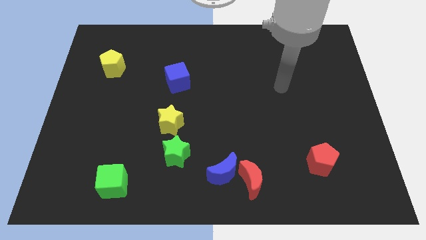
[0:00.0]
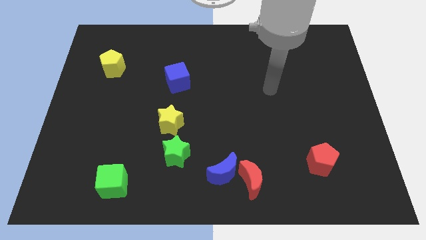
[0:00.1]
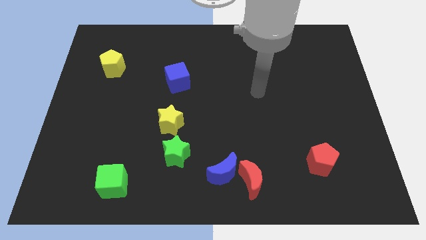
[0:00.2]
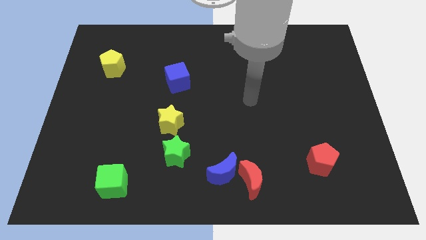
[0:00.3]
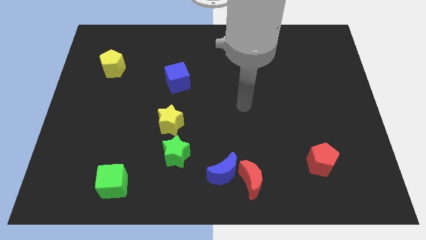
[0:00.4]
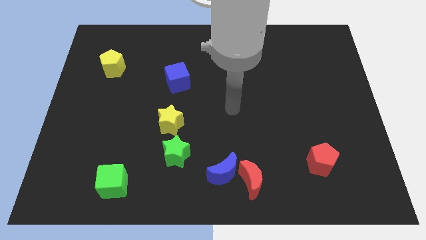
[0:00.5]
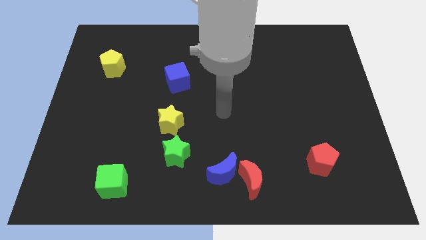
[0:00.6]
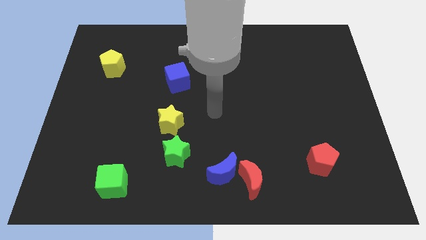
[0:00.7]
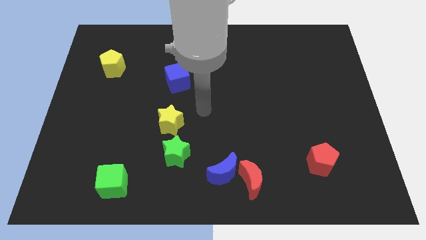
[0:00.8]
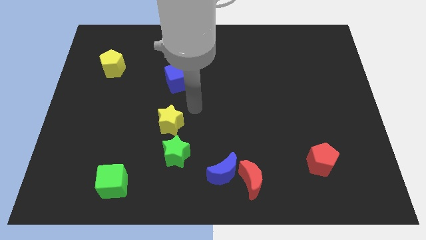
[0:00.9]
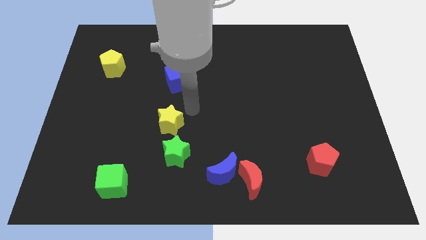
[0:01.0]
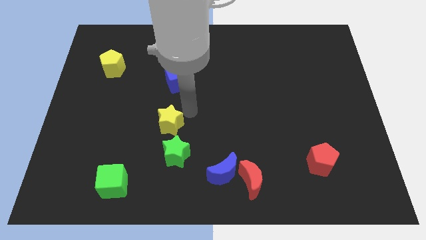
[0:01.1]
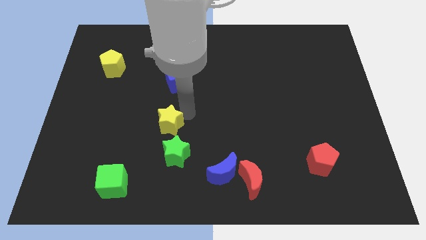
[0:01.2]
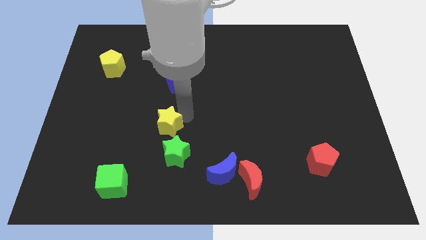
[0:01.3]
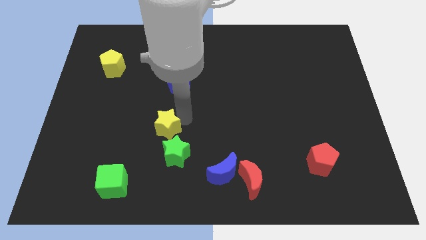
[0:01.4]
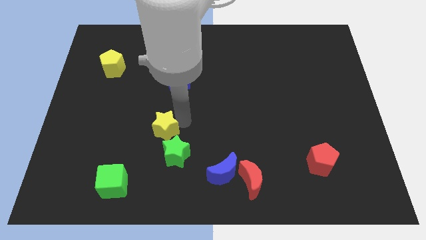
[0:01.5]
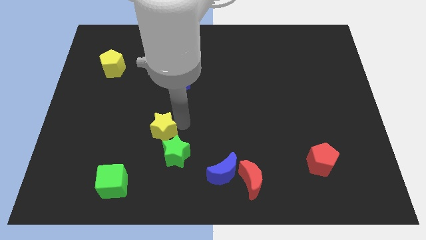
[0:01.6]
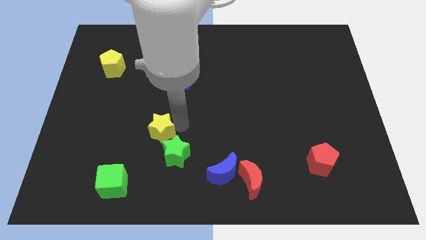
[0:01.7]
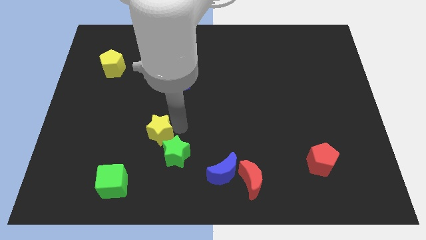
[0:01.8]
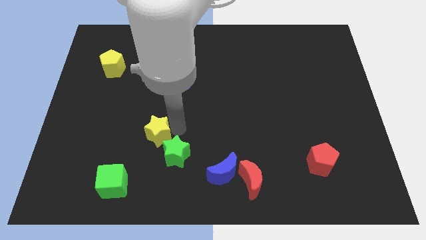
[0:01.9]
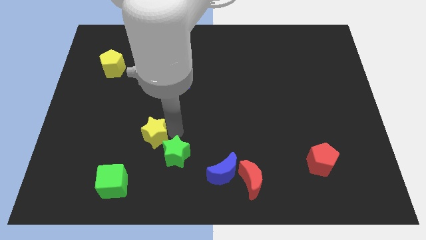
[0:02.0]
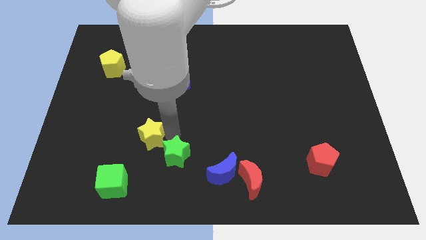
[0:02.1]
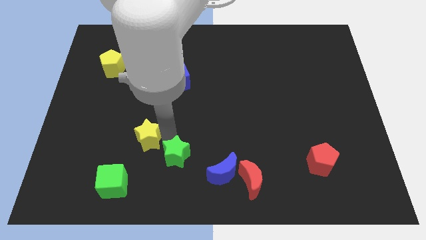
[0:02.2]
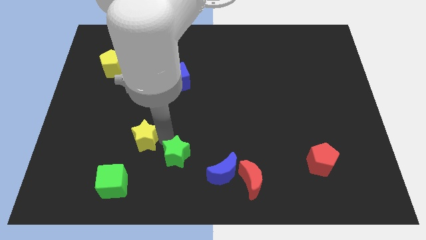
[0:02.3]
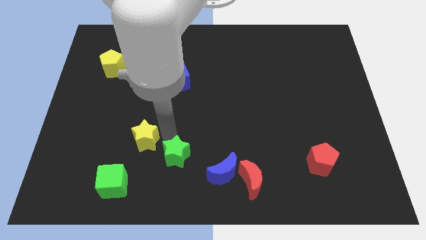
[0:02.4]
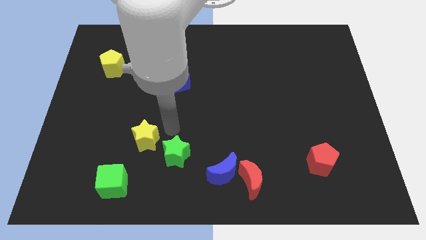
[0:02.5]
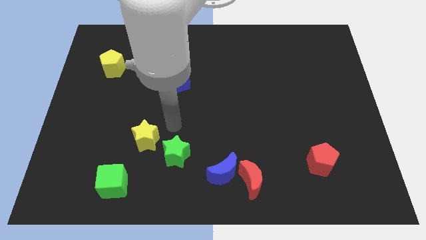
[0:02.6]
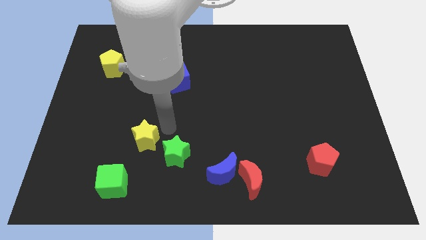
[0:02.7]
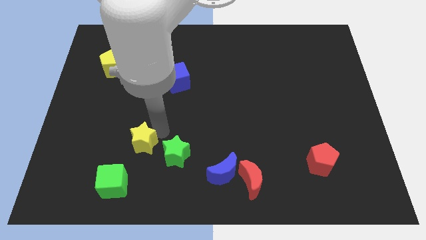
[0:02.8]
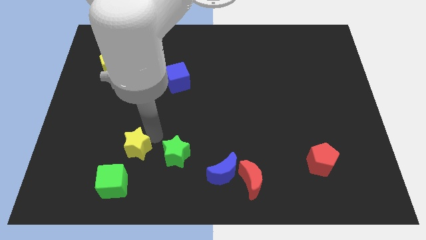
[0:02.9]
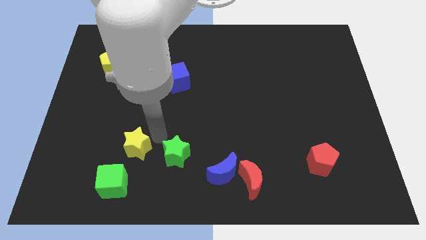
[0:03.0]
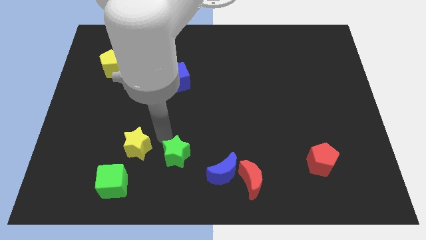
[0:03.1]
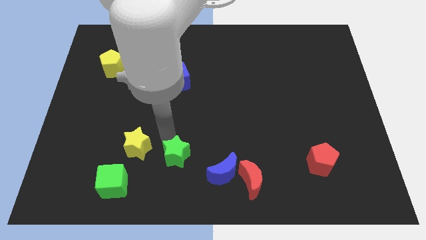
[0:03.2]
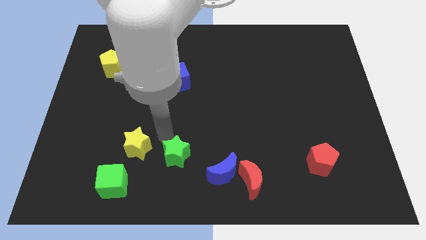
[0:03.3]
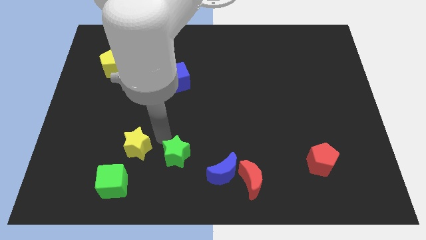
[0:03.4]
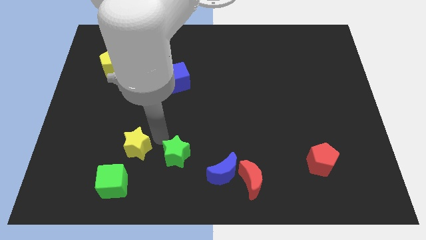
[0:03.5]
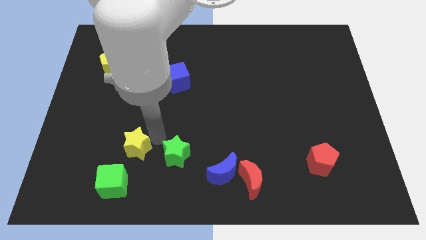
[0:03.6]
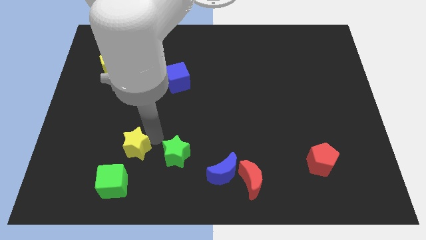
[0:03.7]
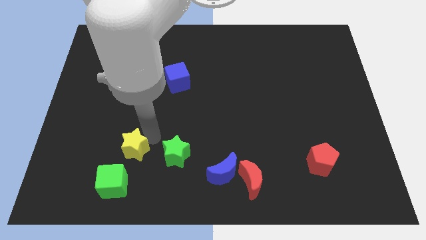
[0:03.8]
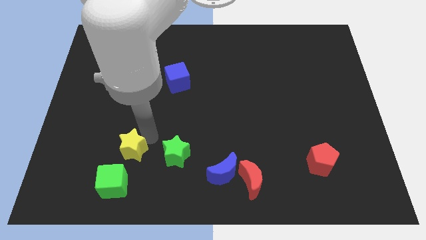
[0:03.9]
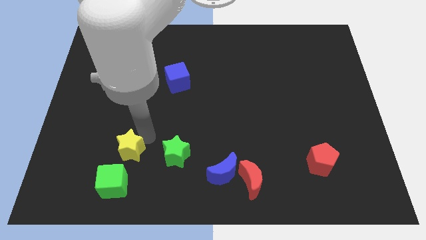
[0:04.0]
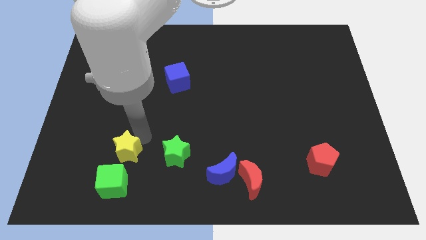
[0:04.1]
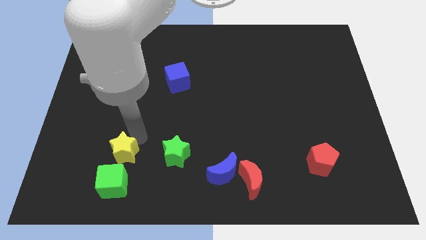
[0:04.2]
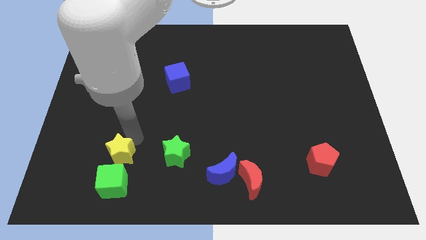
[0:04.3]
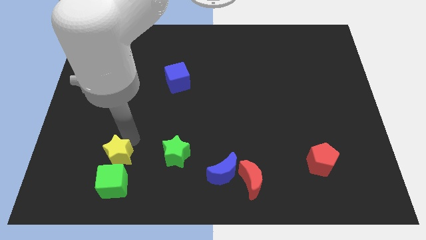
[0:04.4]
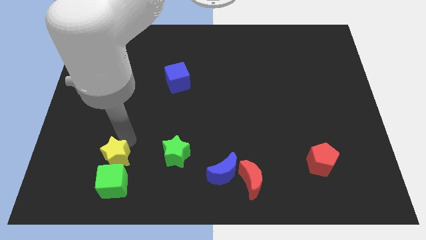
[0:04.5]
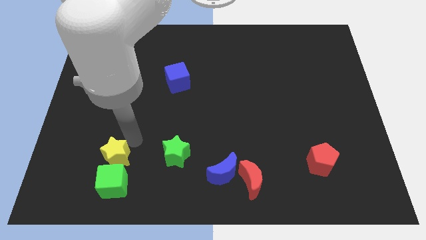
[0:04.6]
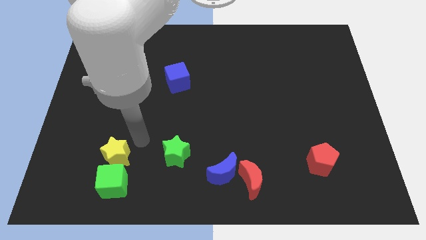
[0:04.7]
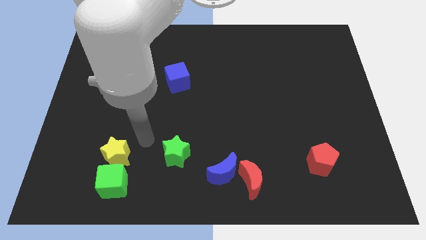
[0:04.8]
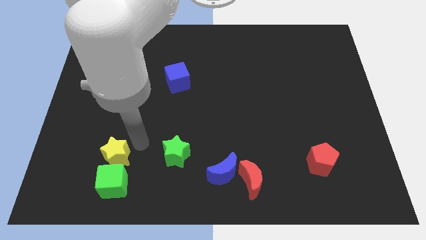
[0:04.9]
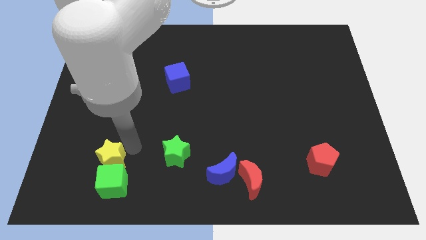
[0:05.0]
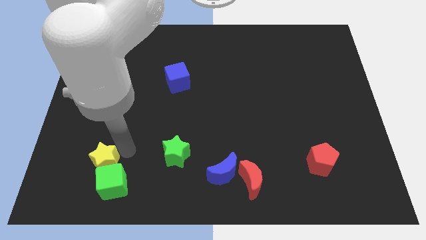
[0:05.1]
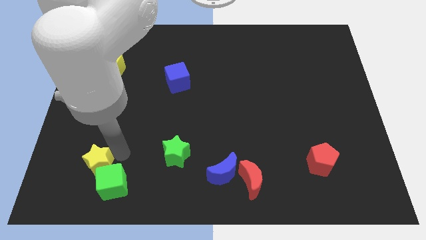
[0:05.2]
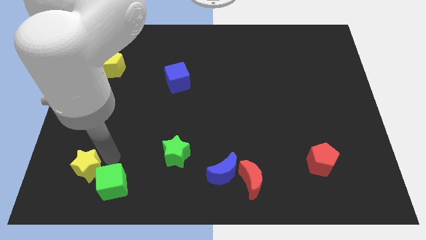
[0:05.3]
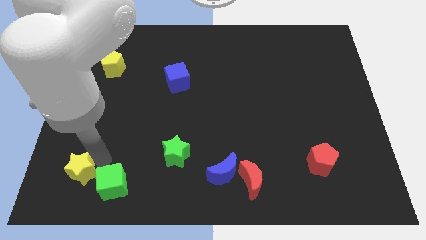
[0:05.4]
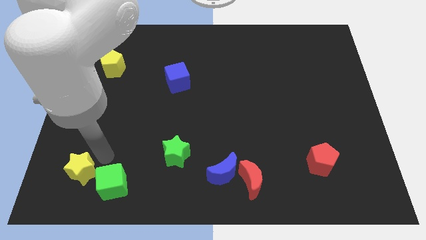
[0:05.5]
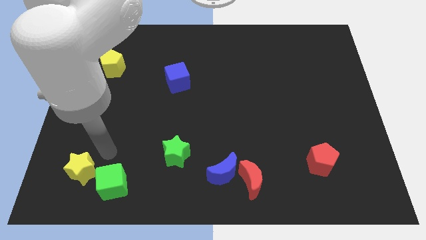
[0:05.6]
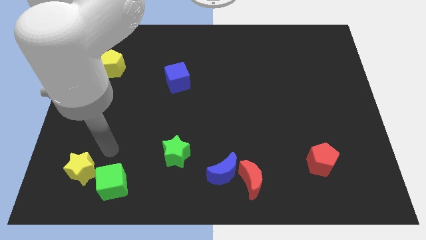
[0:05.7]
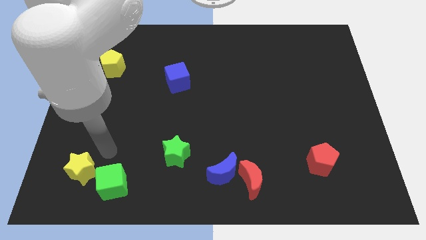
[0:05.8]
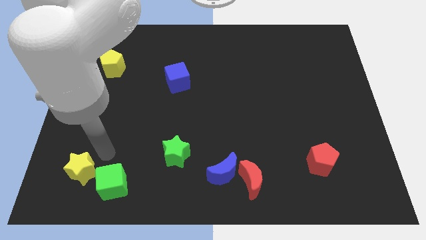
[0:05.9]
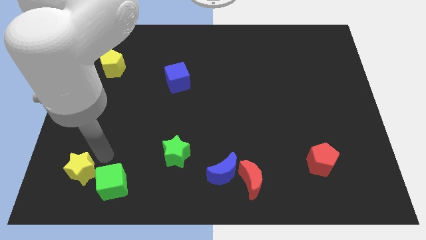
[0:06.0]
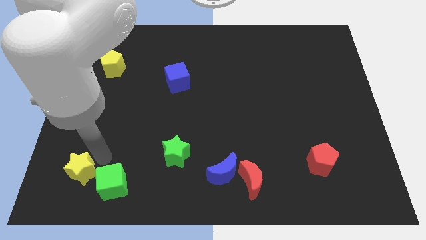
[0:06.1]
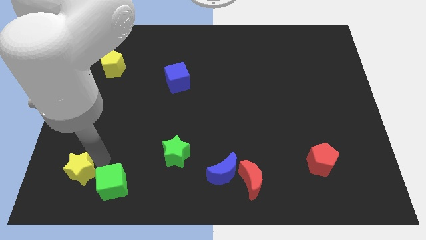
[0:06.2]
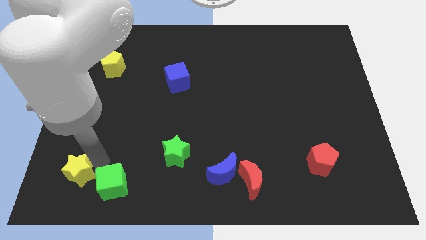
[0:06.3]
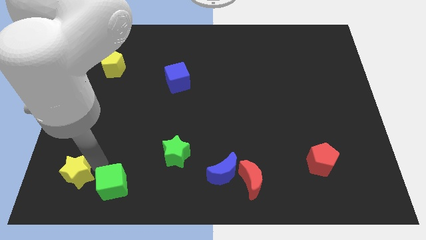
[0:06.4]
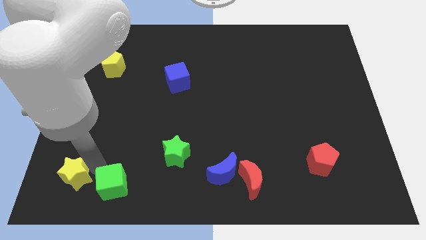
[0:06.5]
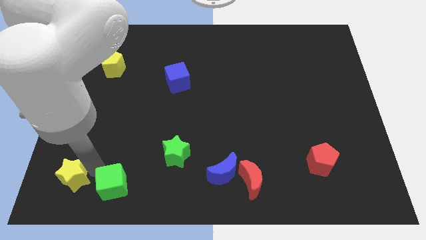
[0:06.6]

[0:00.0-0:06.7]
slide the yellow star to the bottom left

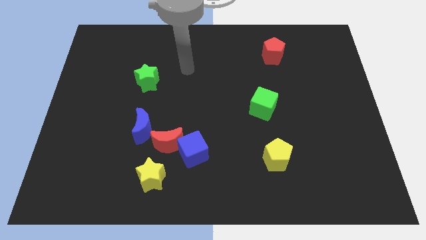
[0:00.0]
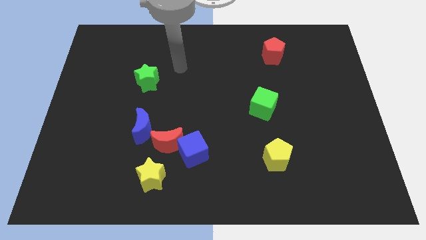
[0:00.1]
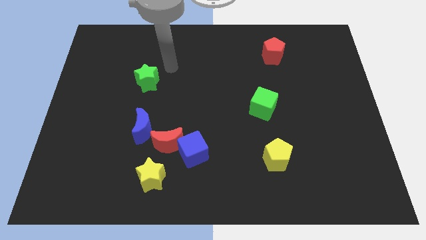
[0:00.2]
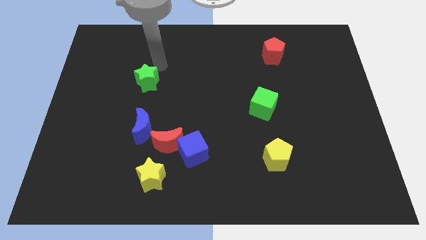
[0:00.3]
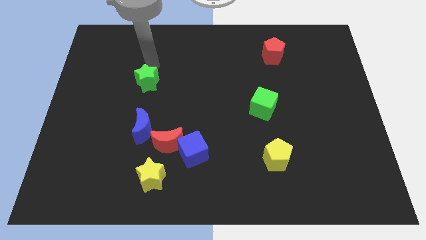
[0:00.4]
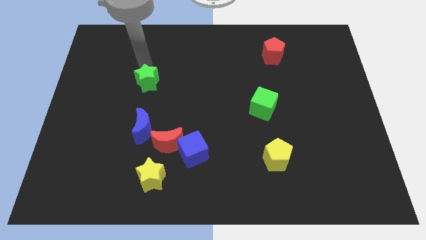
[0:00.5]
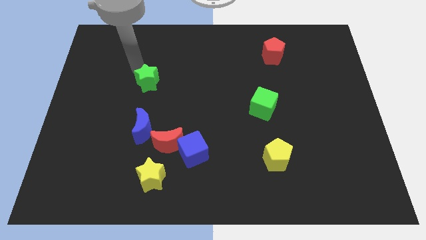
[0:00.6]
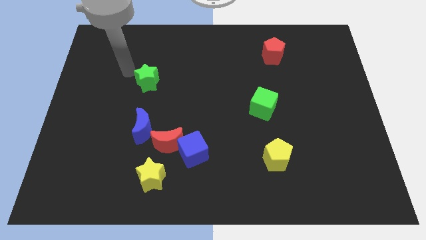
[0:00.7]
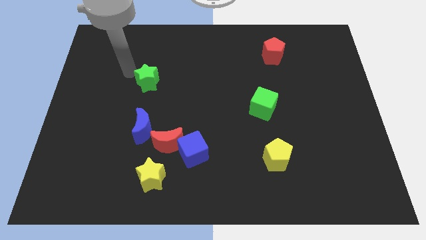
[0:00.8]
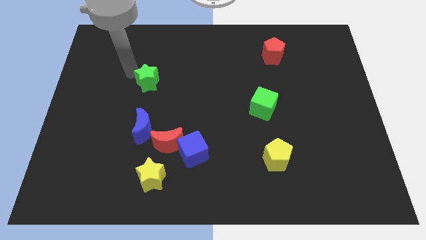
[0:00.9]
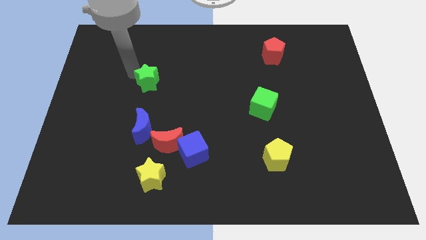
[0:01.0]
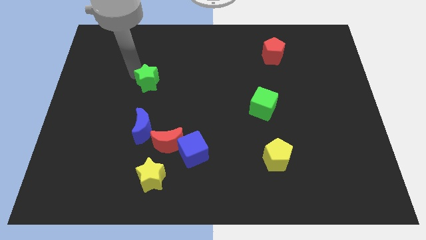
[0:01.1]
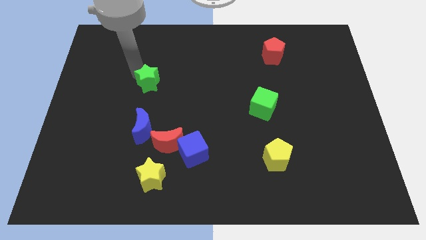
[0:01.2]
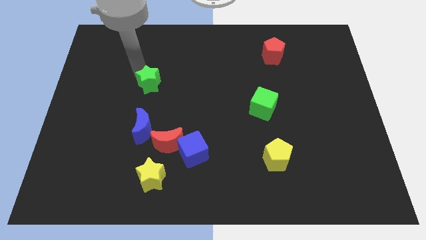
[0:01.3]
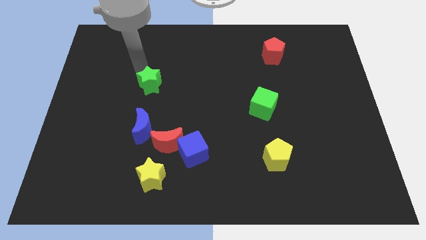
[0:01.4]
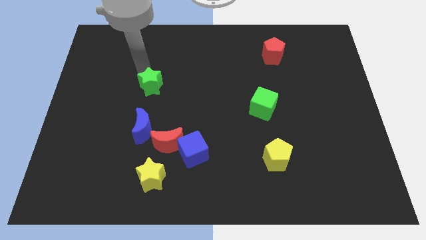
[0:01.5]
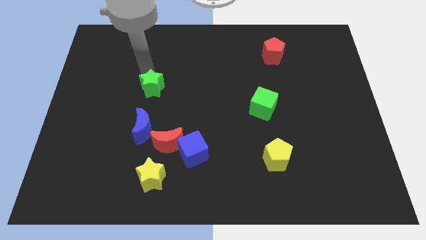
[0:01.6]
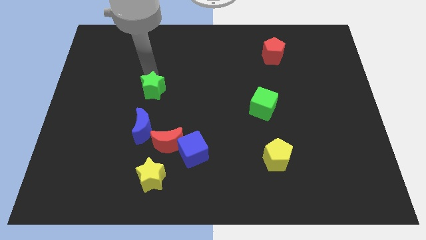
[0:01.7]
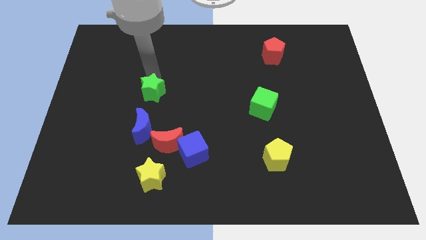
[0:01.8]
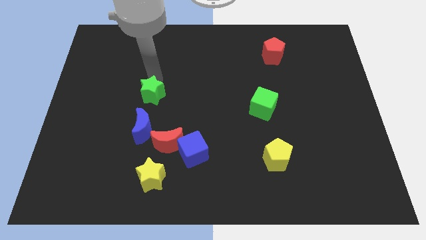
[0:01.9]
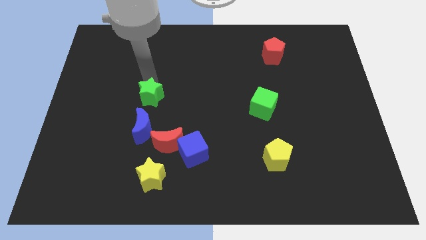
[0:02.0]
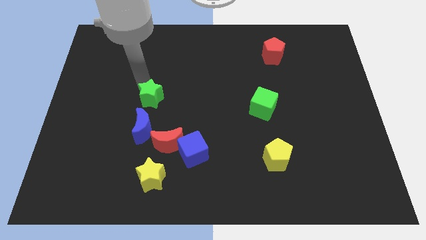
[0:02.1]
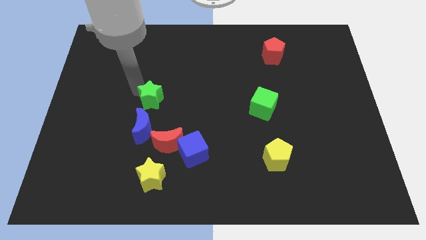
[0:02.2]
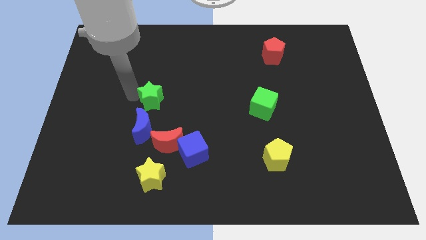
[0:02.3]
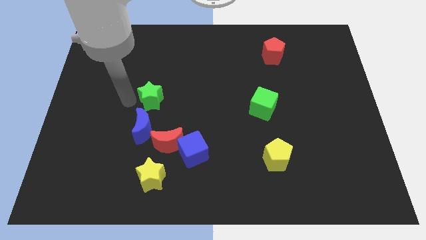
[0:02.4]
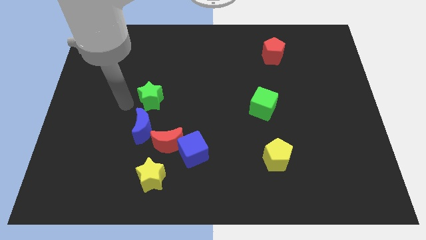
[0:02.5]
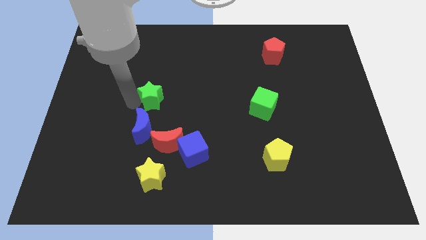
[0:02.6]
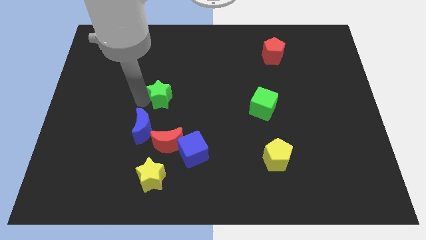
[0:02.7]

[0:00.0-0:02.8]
move the green star to the center
